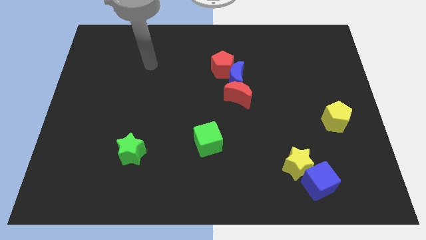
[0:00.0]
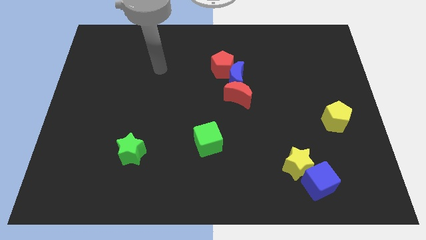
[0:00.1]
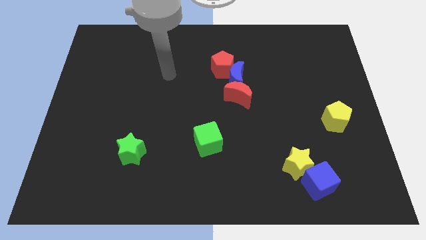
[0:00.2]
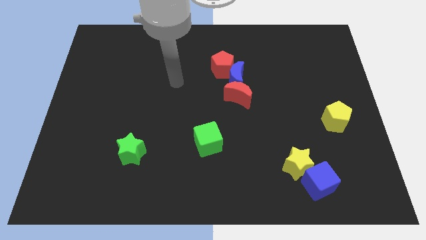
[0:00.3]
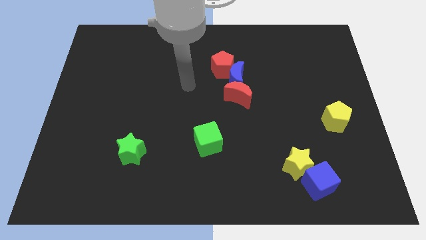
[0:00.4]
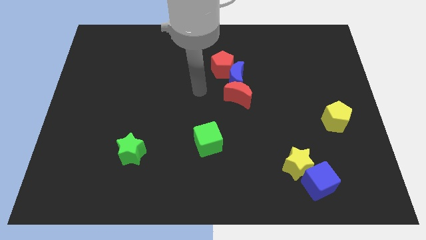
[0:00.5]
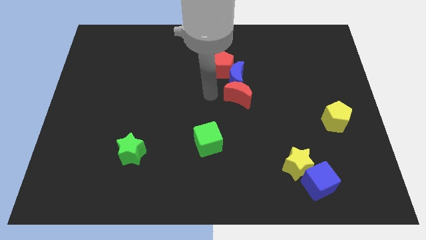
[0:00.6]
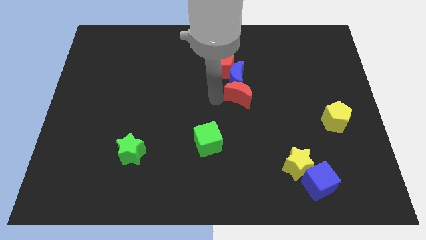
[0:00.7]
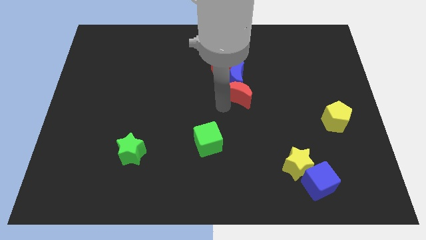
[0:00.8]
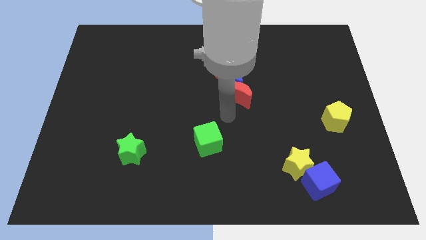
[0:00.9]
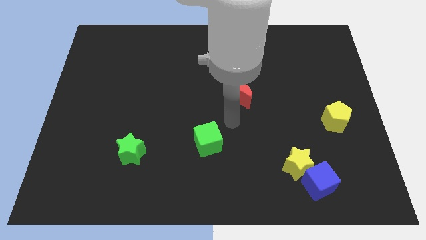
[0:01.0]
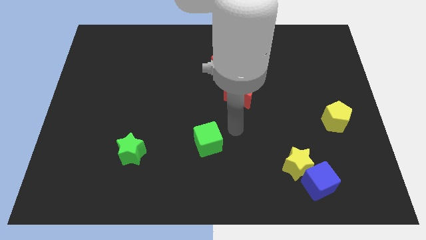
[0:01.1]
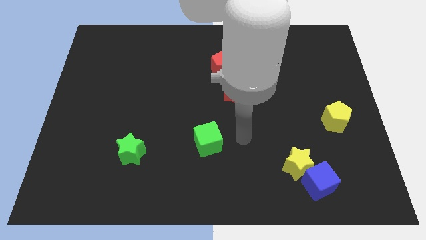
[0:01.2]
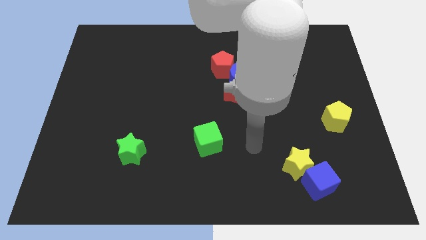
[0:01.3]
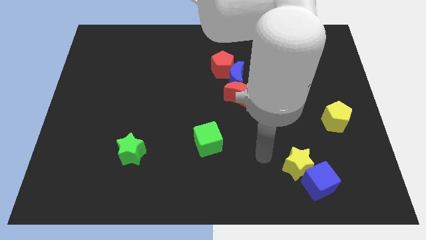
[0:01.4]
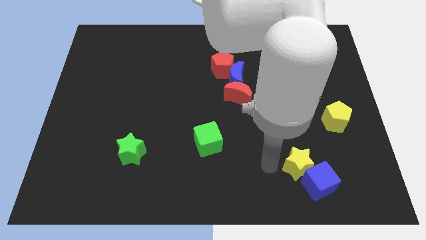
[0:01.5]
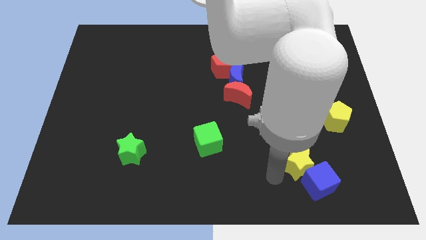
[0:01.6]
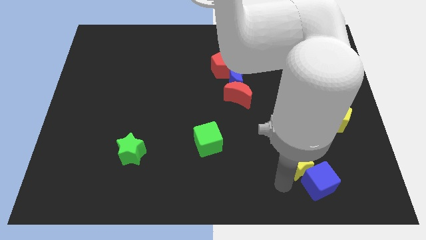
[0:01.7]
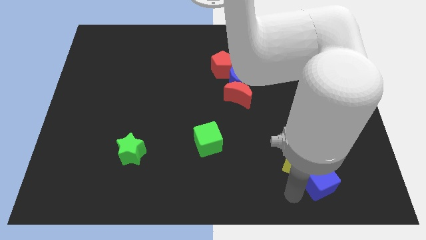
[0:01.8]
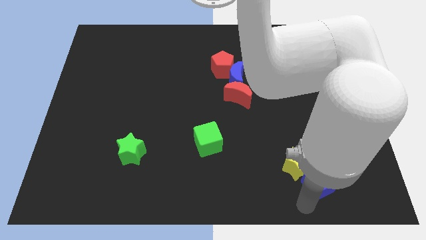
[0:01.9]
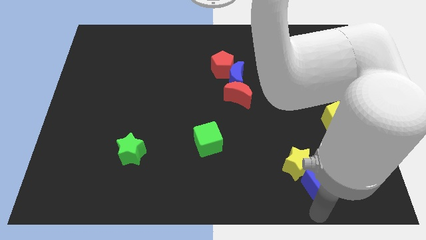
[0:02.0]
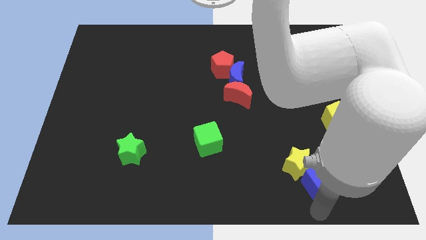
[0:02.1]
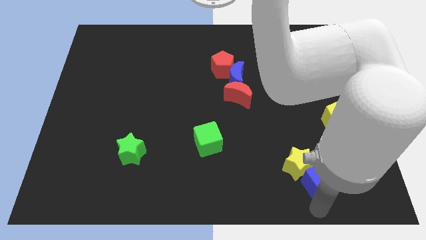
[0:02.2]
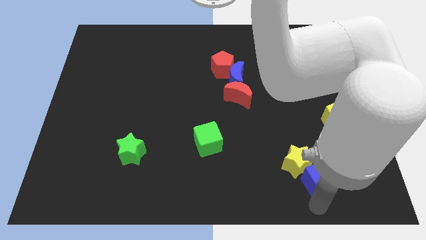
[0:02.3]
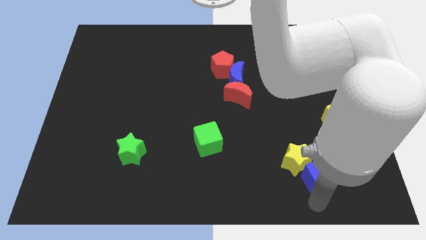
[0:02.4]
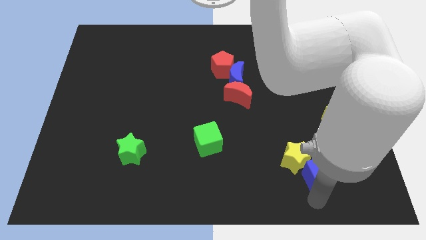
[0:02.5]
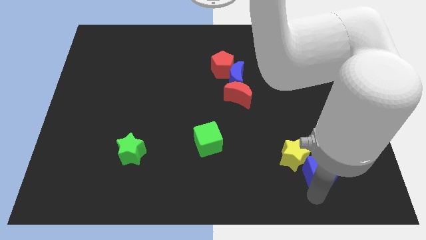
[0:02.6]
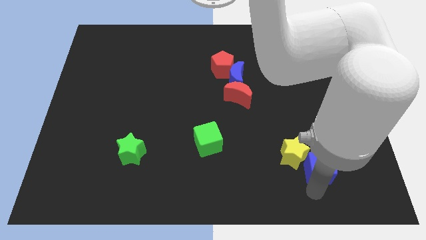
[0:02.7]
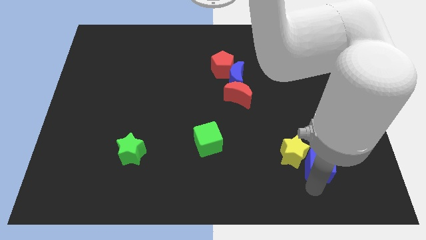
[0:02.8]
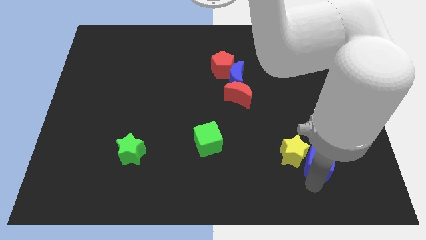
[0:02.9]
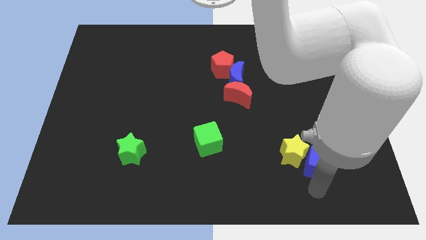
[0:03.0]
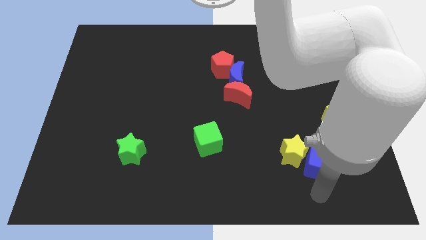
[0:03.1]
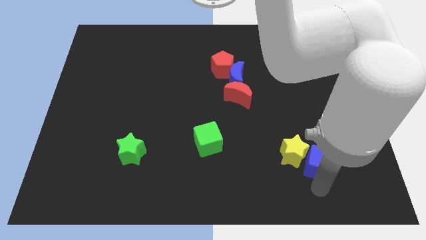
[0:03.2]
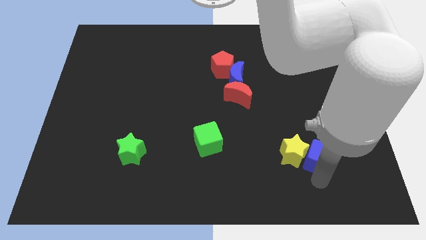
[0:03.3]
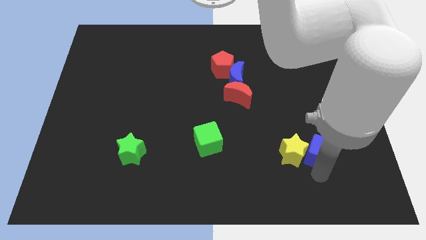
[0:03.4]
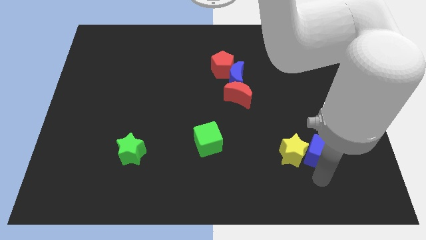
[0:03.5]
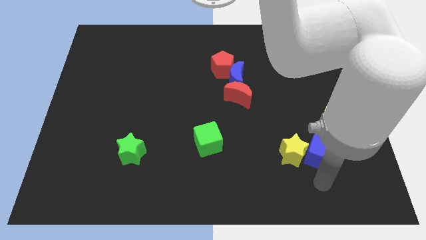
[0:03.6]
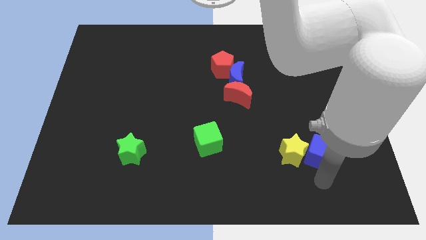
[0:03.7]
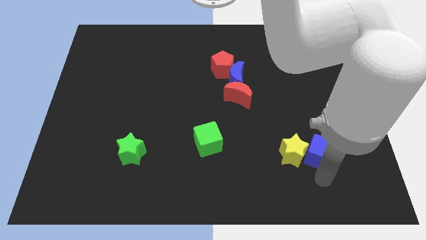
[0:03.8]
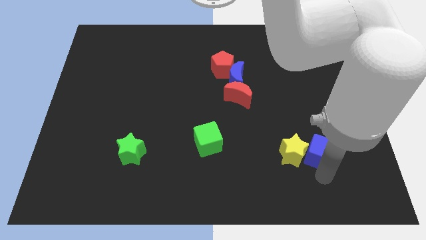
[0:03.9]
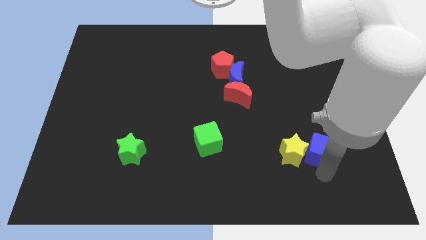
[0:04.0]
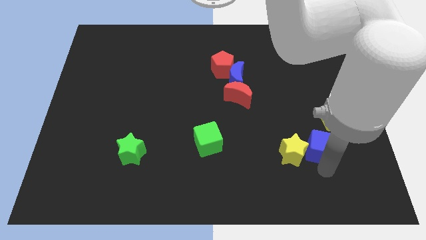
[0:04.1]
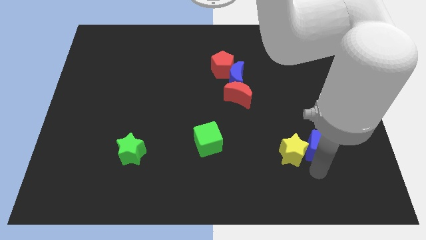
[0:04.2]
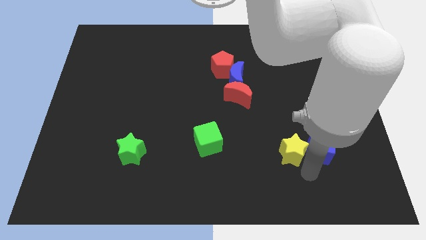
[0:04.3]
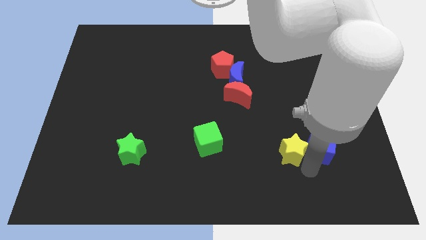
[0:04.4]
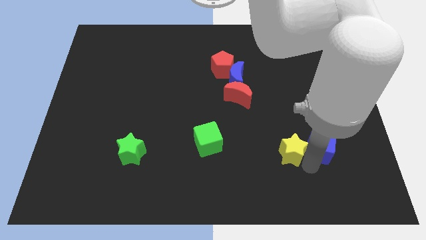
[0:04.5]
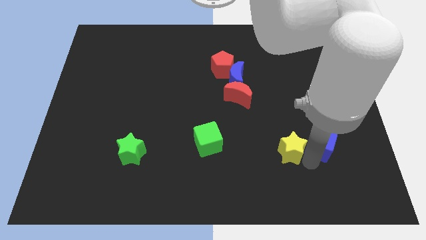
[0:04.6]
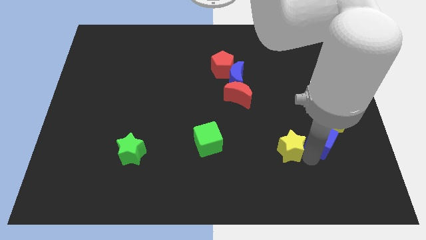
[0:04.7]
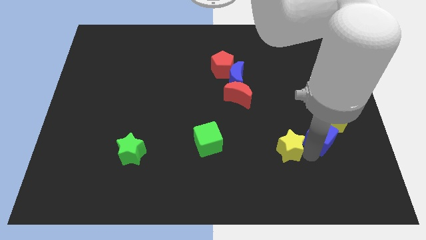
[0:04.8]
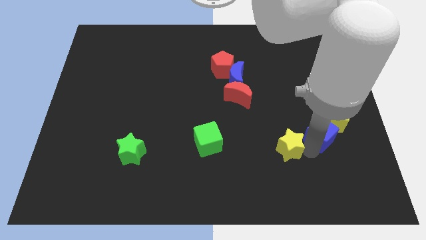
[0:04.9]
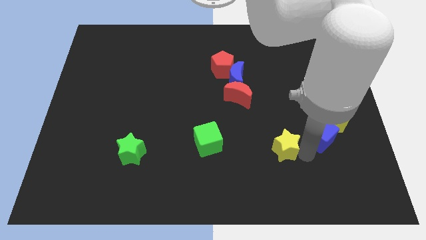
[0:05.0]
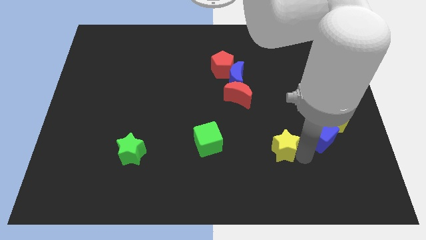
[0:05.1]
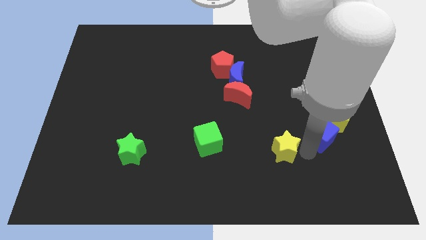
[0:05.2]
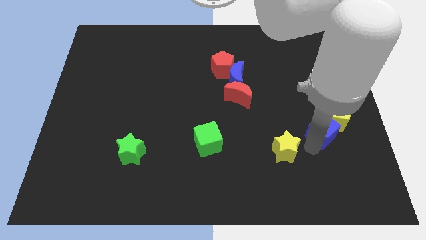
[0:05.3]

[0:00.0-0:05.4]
move the blue cube towards the yellow pentagon

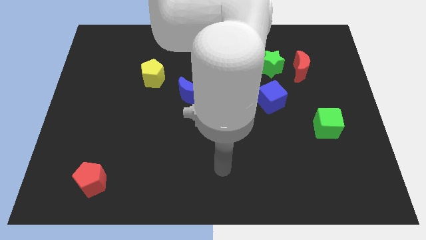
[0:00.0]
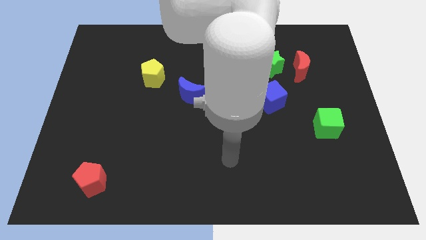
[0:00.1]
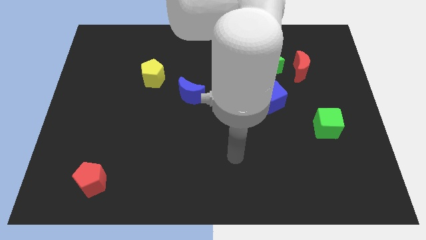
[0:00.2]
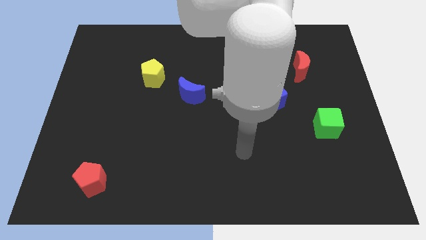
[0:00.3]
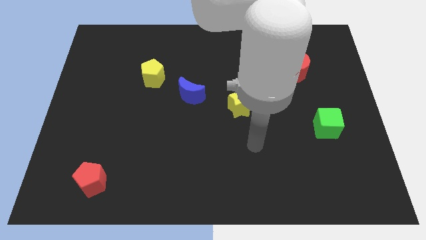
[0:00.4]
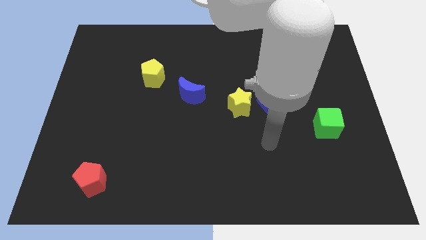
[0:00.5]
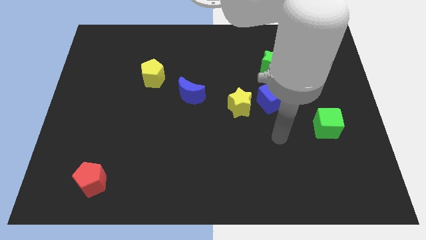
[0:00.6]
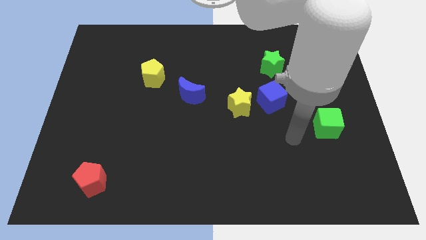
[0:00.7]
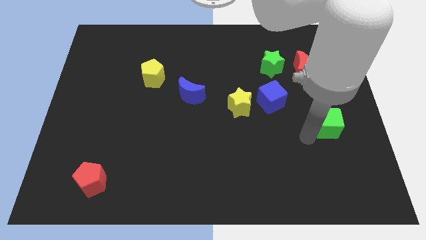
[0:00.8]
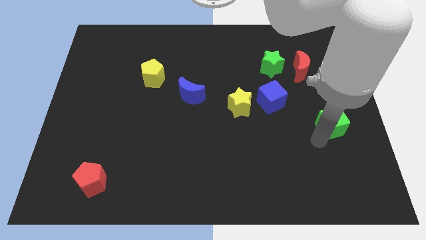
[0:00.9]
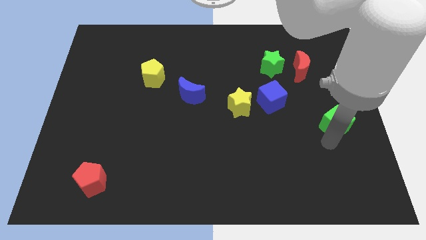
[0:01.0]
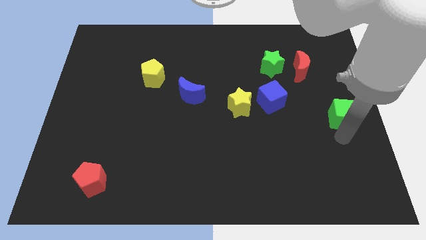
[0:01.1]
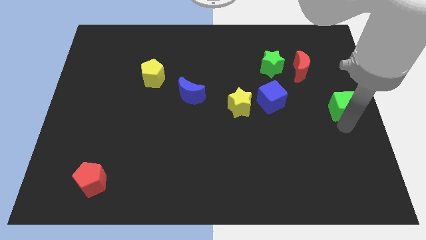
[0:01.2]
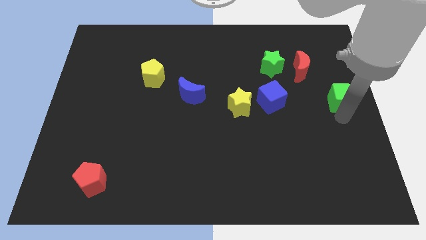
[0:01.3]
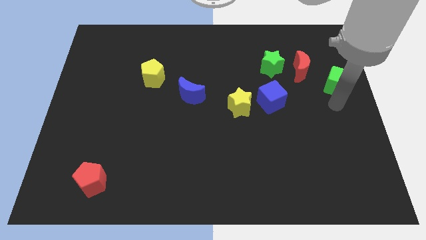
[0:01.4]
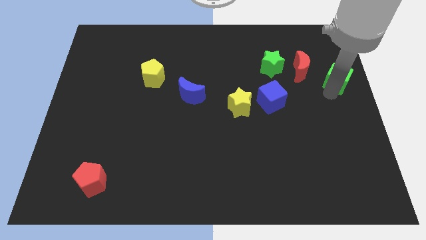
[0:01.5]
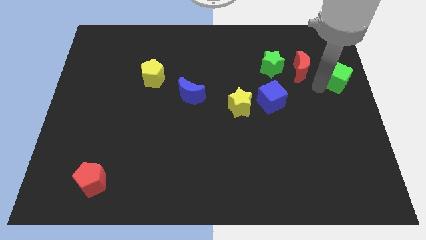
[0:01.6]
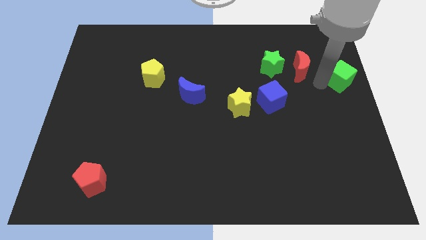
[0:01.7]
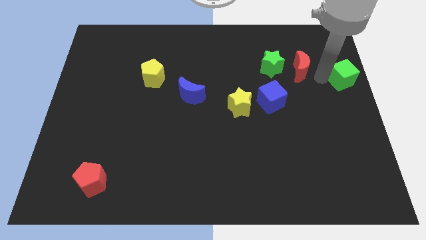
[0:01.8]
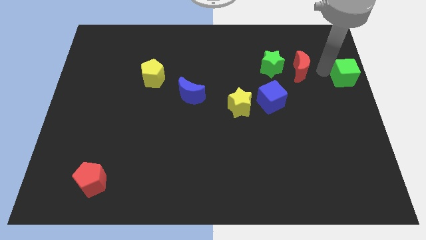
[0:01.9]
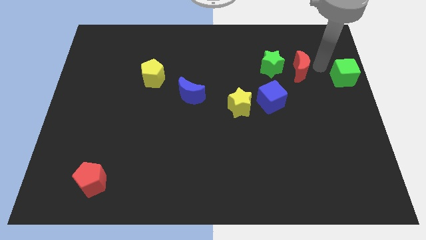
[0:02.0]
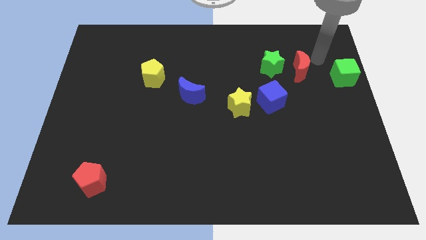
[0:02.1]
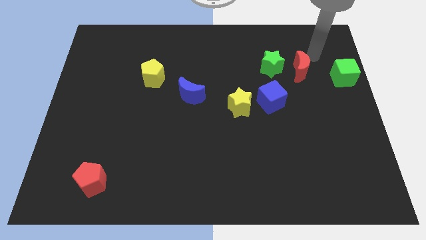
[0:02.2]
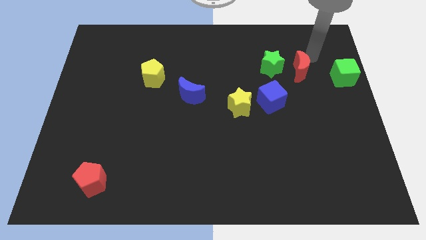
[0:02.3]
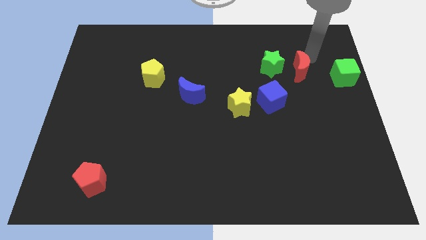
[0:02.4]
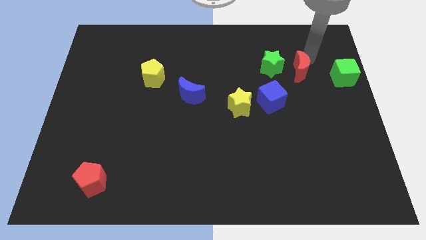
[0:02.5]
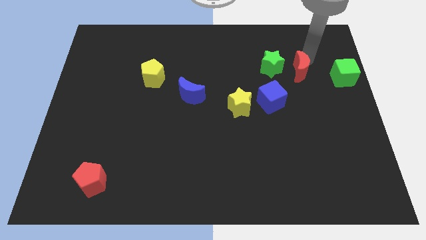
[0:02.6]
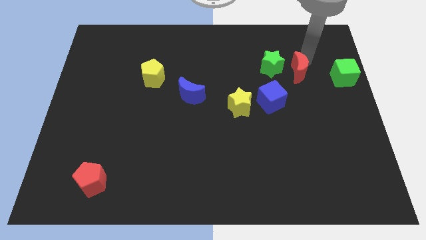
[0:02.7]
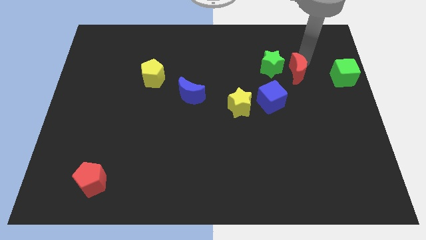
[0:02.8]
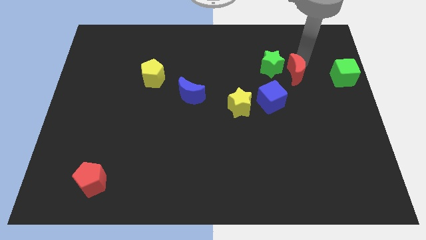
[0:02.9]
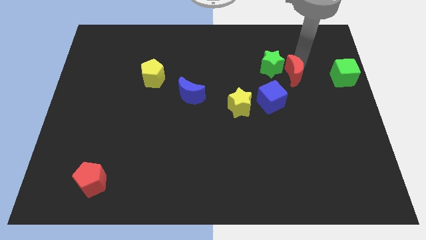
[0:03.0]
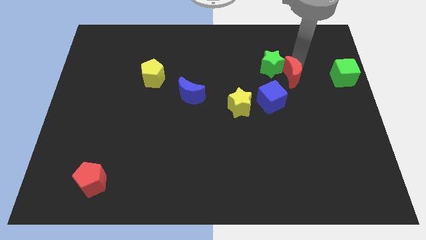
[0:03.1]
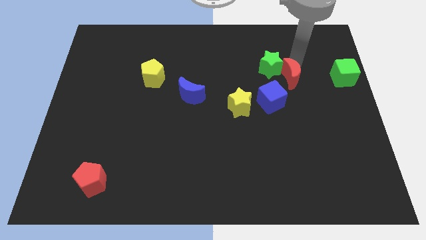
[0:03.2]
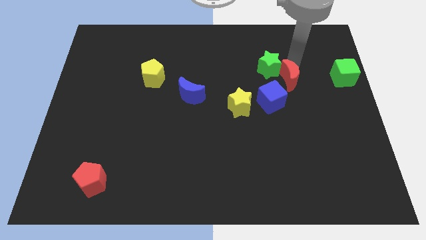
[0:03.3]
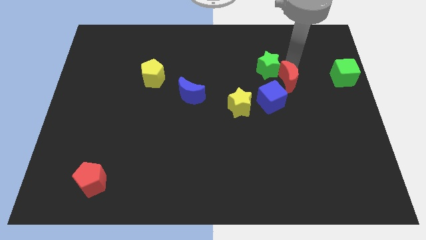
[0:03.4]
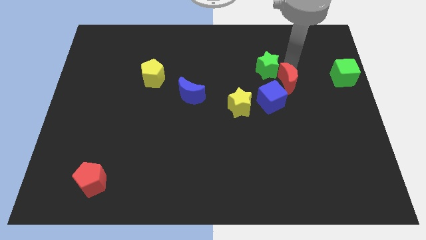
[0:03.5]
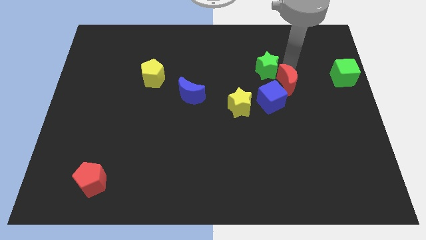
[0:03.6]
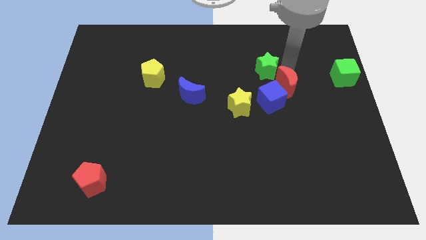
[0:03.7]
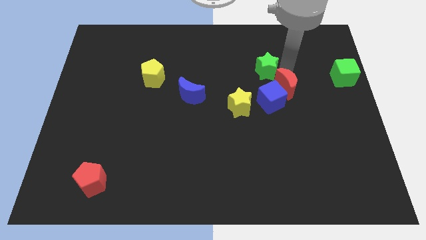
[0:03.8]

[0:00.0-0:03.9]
move the red moon close to the blue cube
